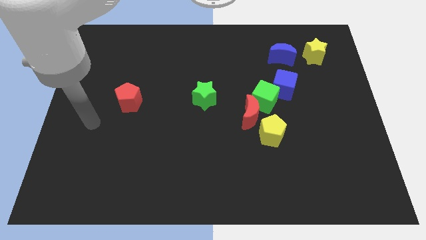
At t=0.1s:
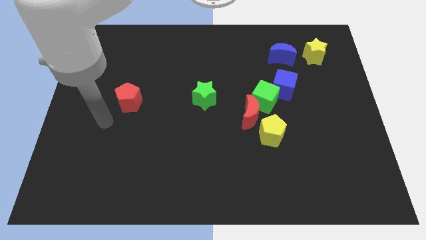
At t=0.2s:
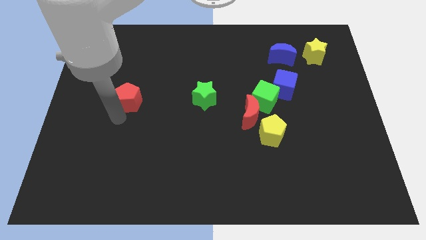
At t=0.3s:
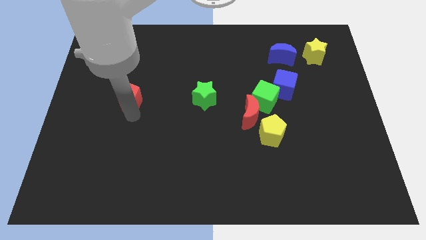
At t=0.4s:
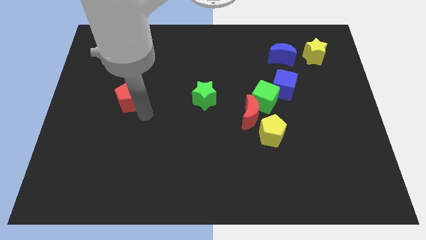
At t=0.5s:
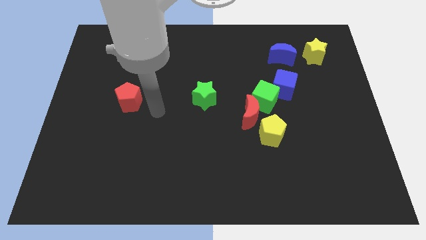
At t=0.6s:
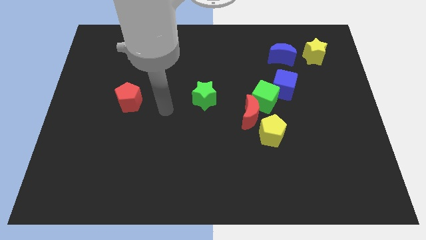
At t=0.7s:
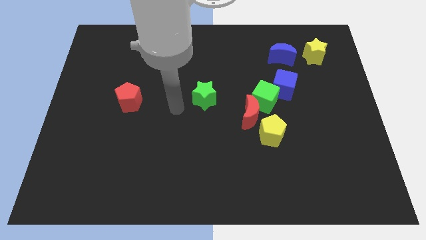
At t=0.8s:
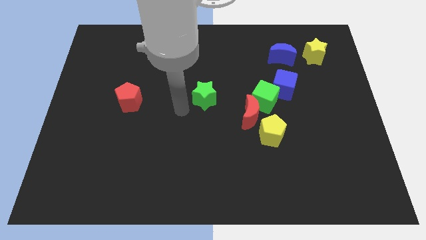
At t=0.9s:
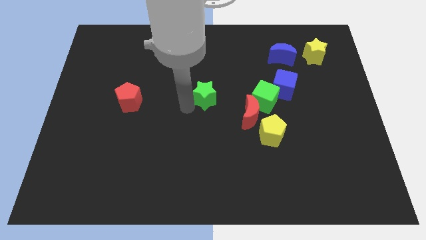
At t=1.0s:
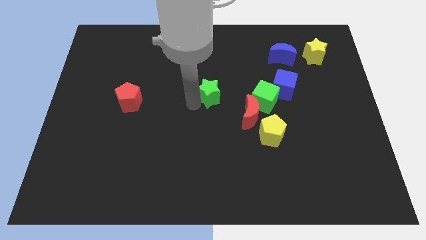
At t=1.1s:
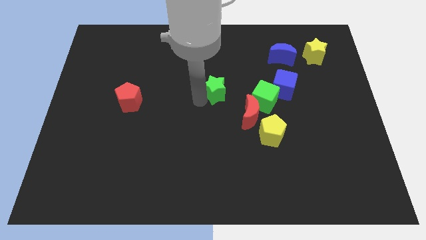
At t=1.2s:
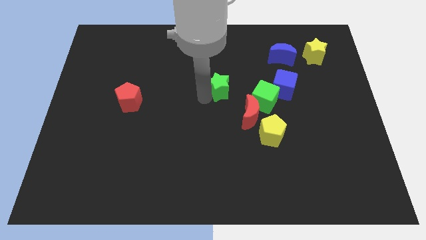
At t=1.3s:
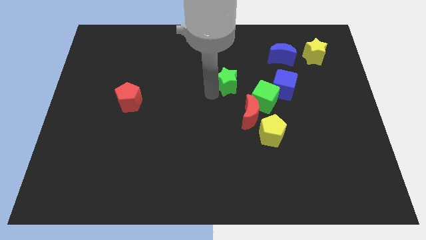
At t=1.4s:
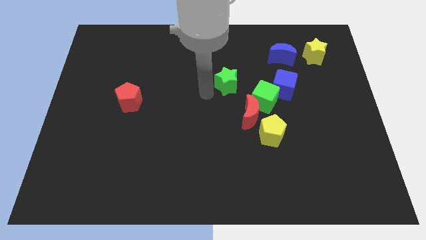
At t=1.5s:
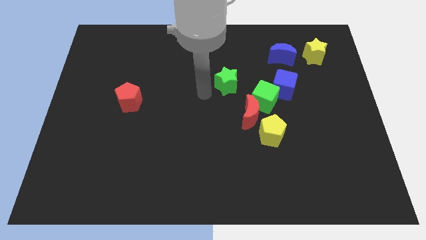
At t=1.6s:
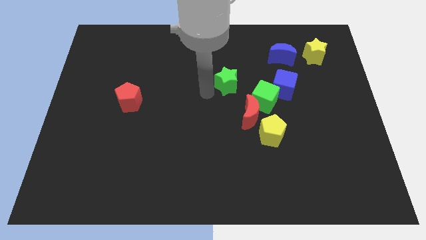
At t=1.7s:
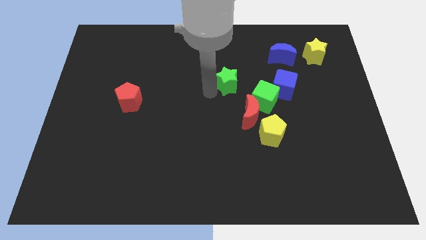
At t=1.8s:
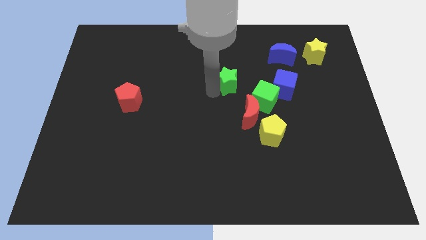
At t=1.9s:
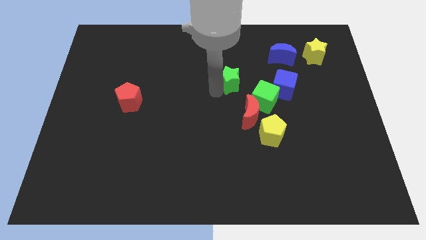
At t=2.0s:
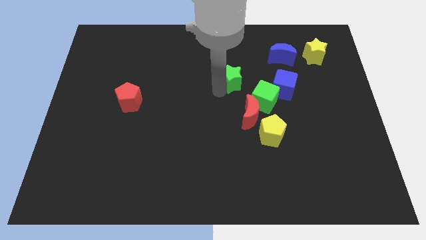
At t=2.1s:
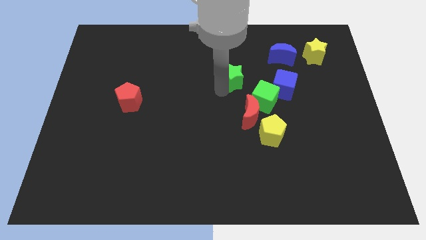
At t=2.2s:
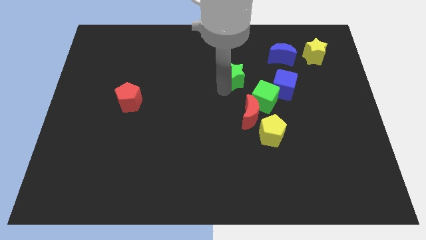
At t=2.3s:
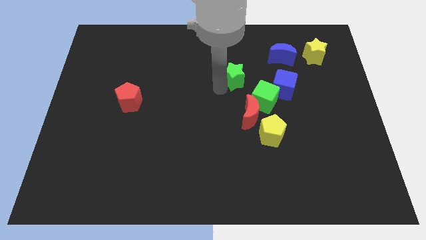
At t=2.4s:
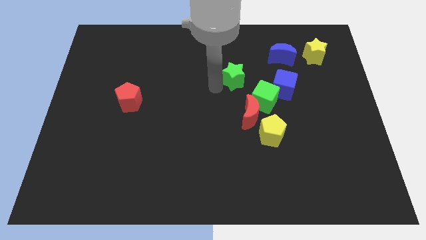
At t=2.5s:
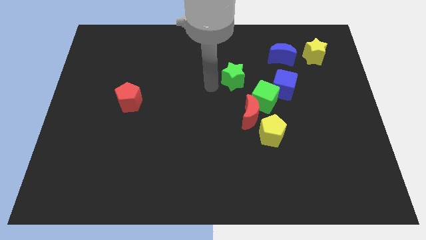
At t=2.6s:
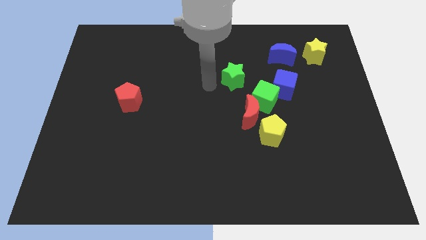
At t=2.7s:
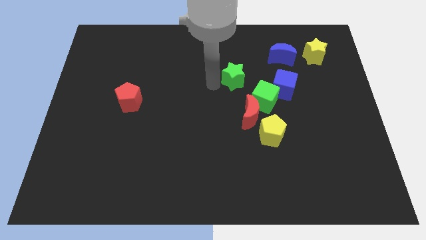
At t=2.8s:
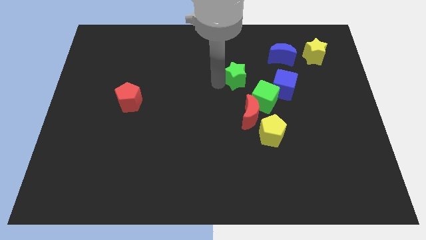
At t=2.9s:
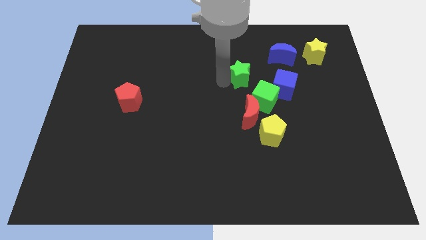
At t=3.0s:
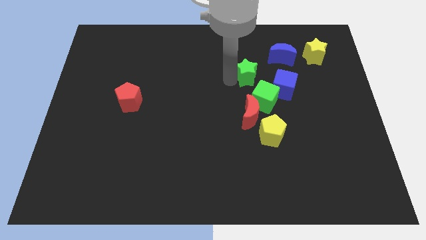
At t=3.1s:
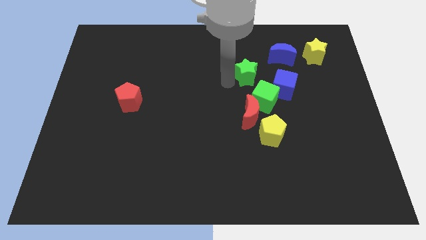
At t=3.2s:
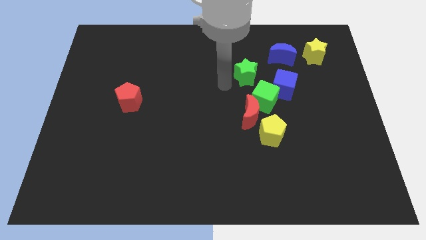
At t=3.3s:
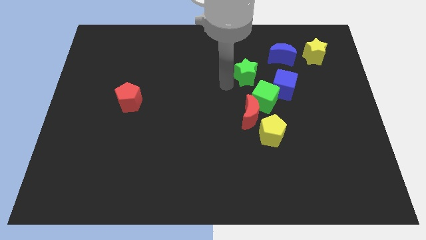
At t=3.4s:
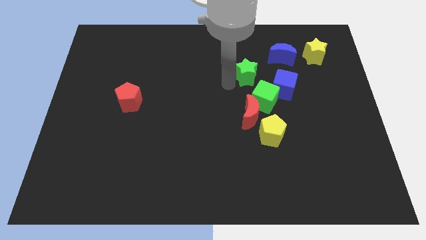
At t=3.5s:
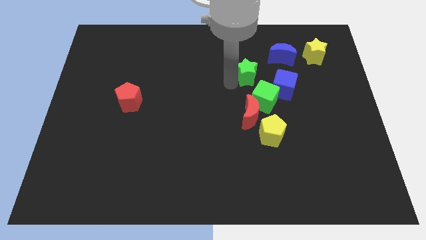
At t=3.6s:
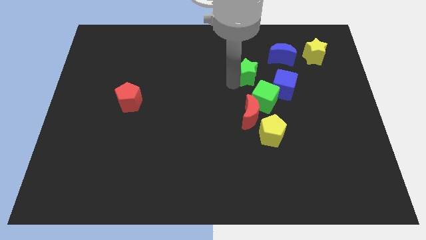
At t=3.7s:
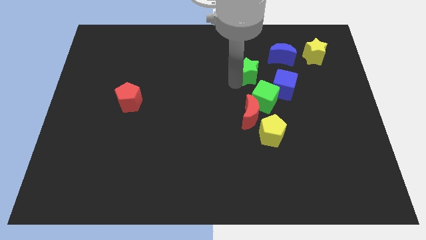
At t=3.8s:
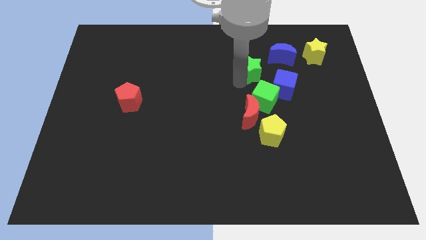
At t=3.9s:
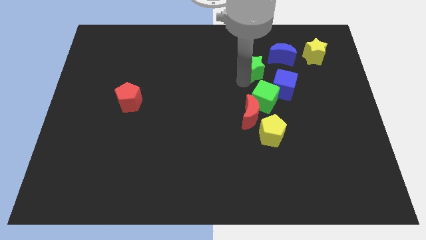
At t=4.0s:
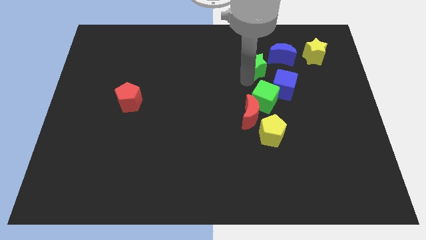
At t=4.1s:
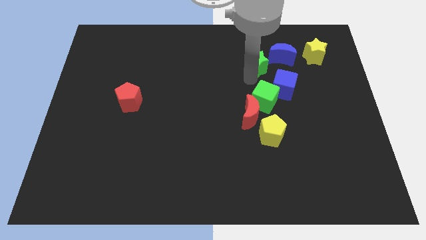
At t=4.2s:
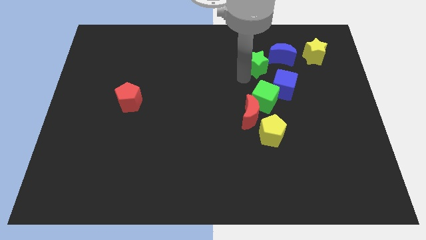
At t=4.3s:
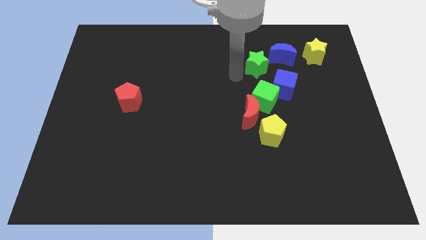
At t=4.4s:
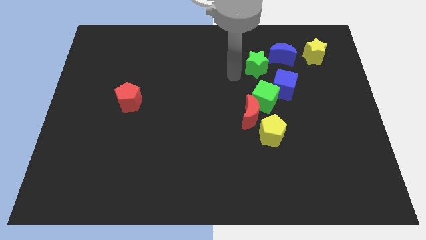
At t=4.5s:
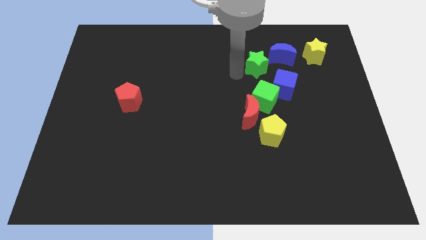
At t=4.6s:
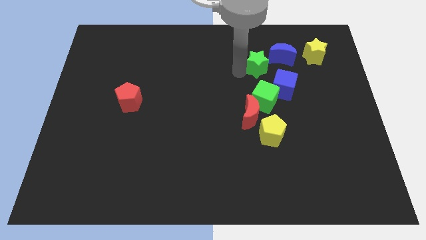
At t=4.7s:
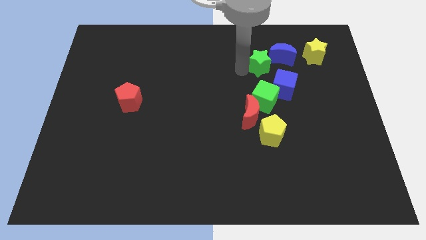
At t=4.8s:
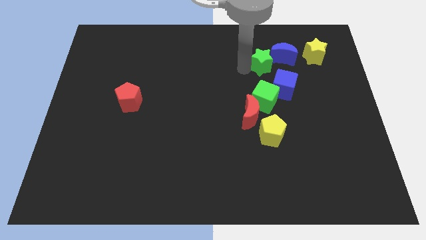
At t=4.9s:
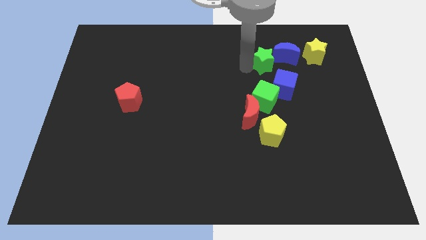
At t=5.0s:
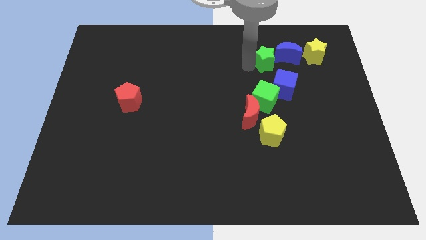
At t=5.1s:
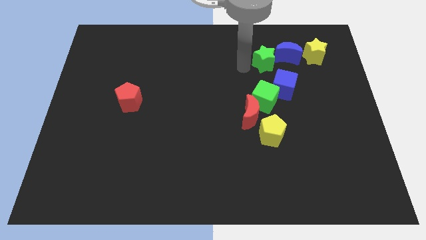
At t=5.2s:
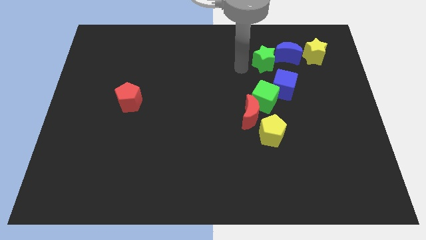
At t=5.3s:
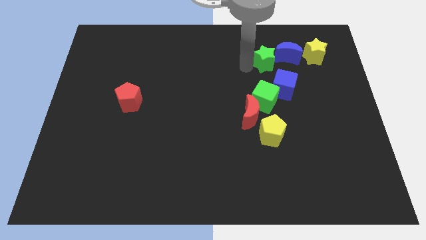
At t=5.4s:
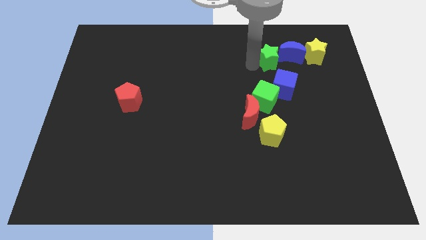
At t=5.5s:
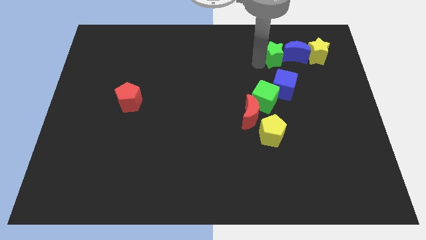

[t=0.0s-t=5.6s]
put the green star to the blue moon
